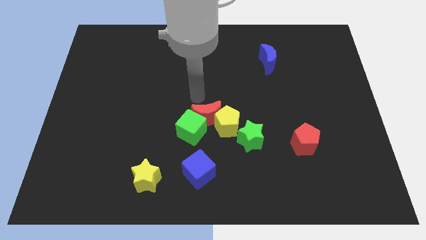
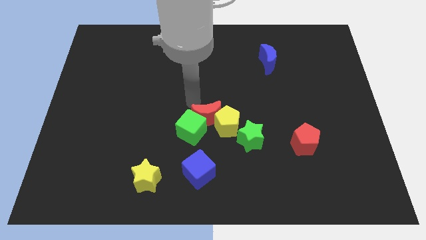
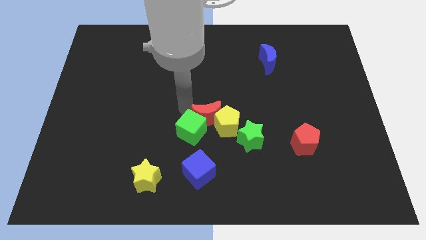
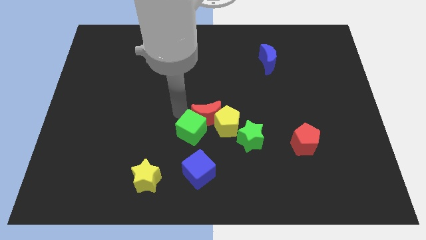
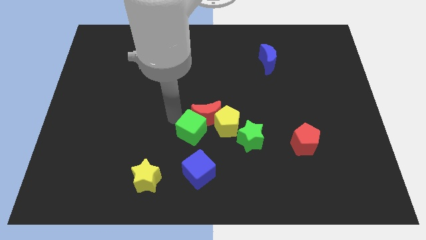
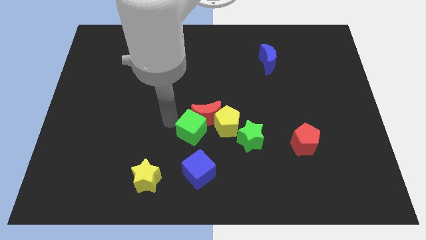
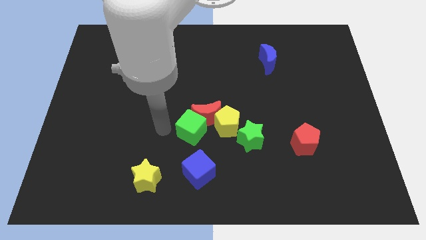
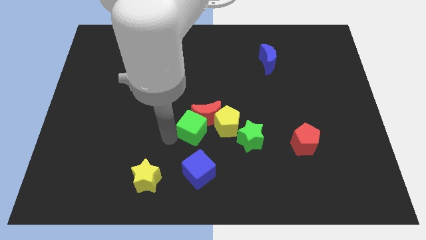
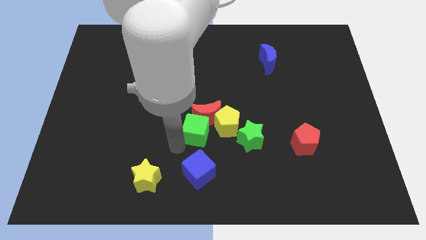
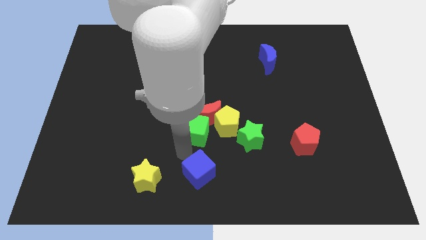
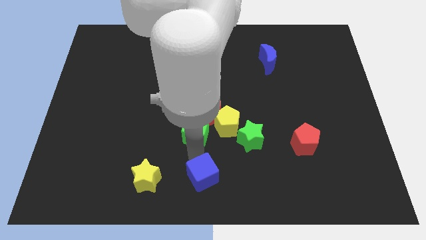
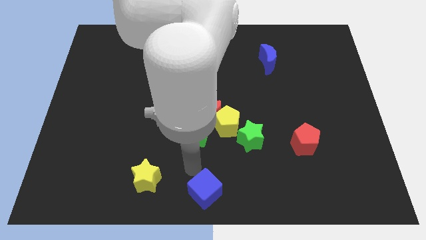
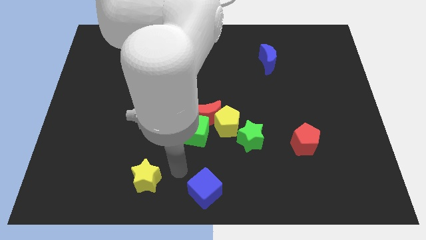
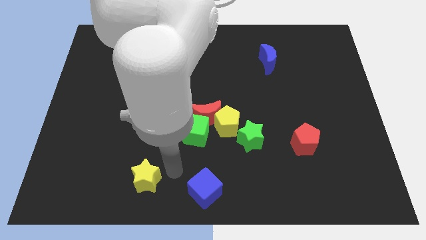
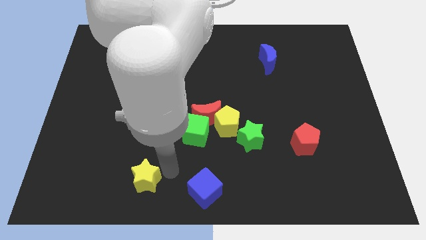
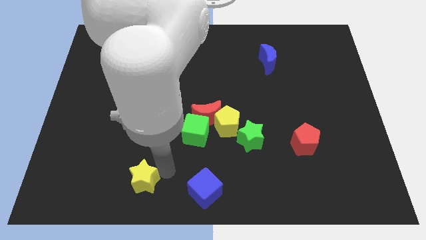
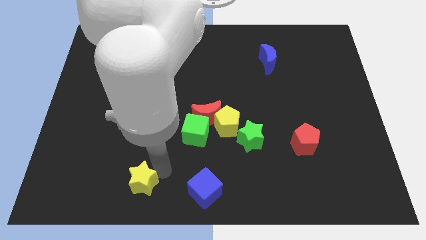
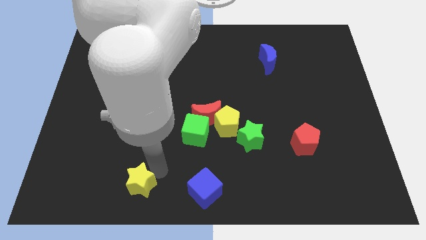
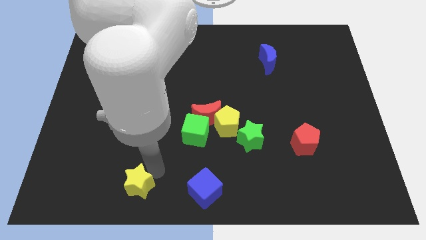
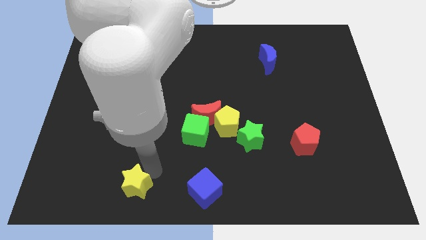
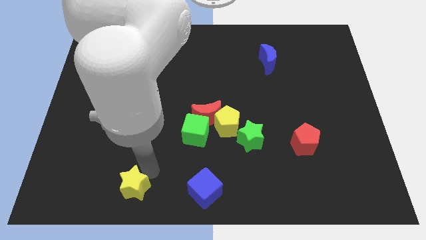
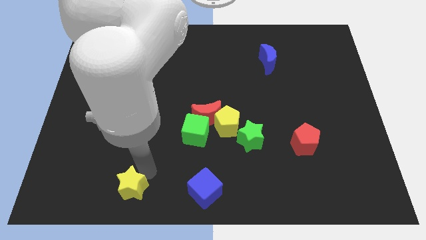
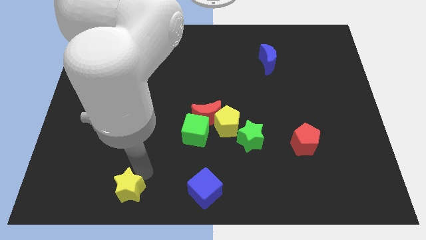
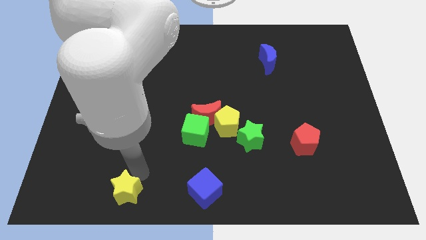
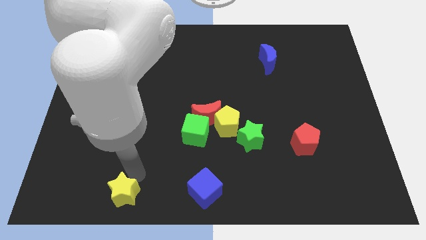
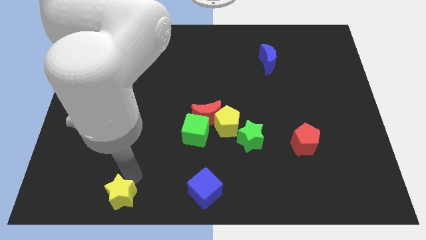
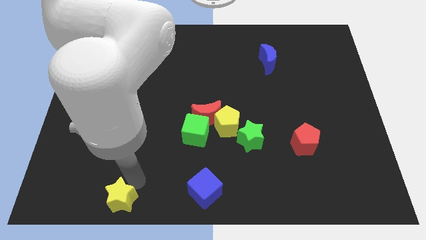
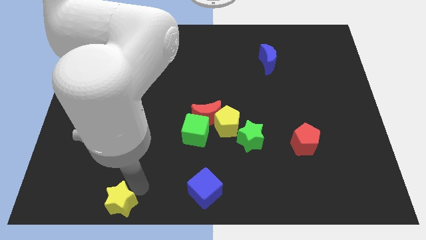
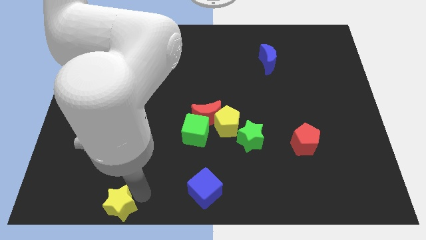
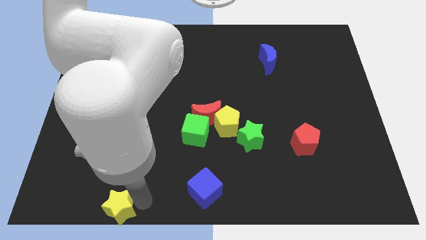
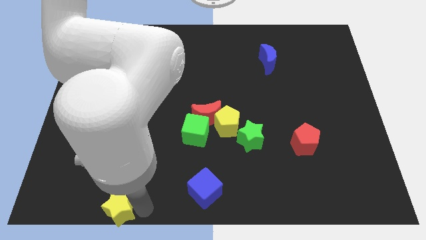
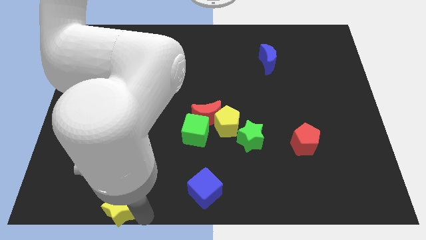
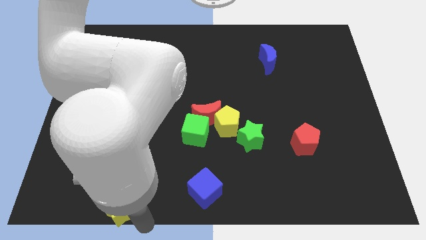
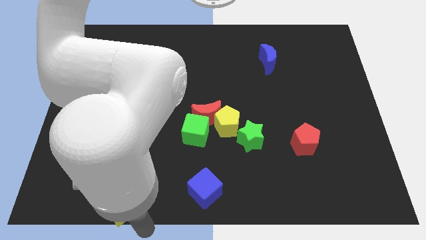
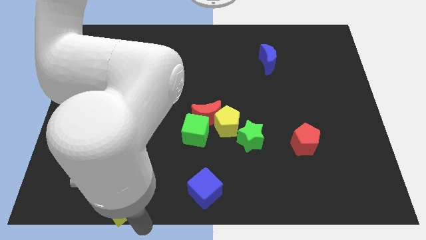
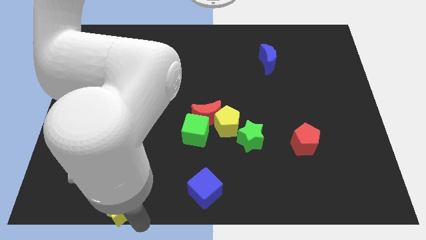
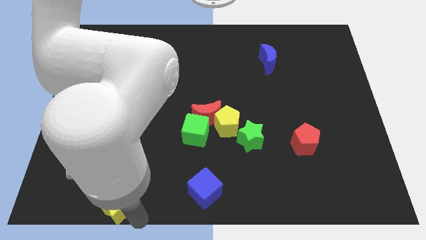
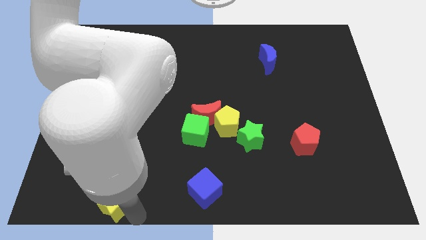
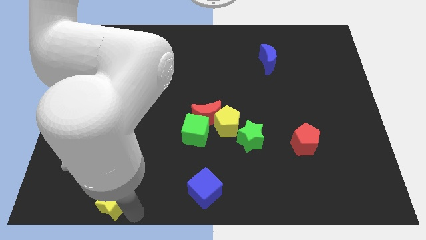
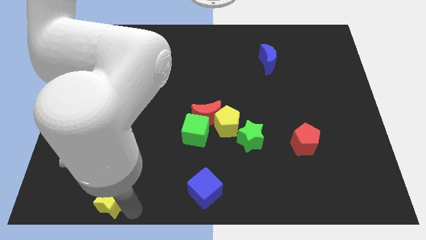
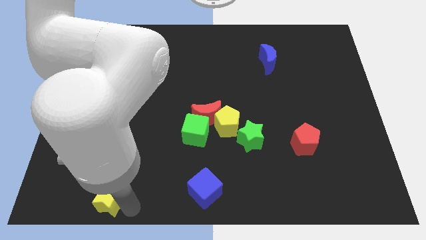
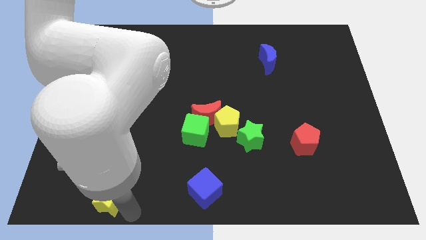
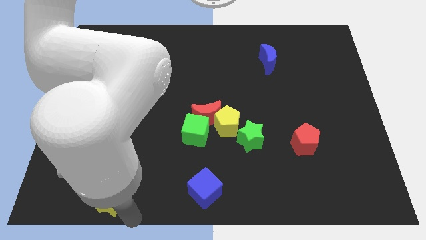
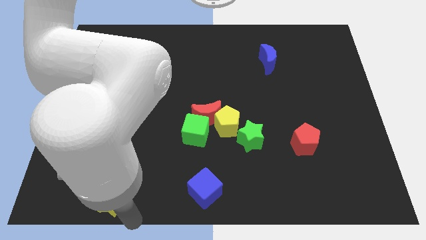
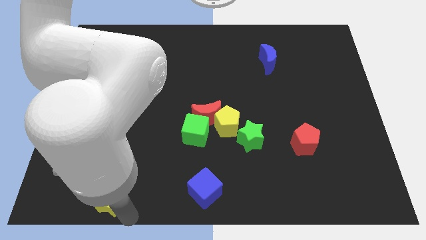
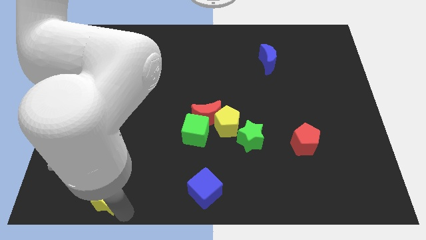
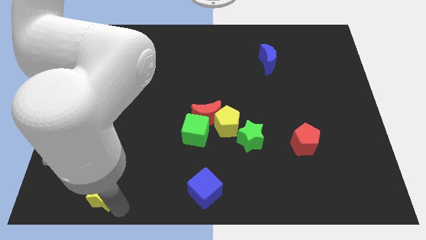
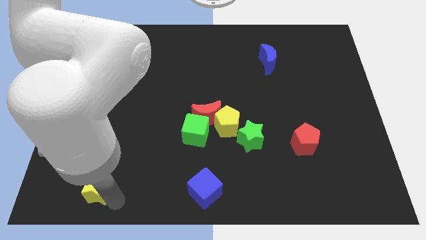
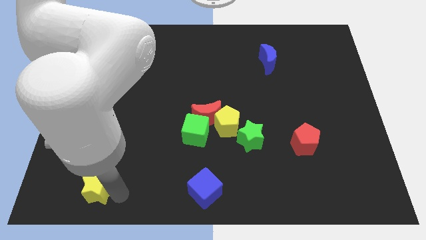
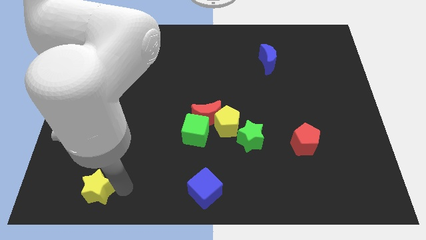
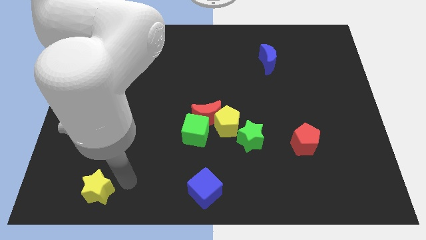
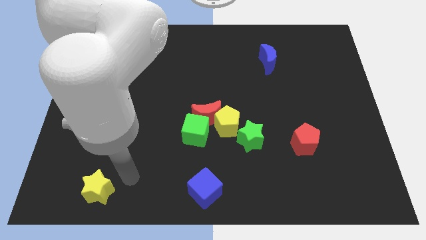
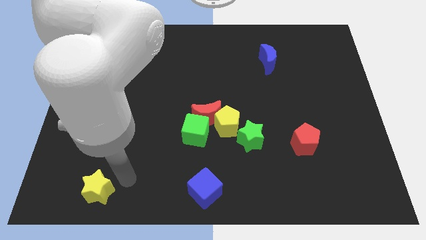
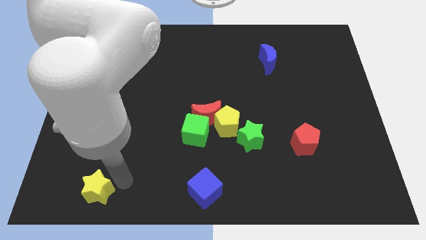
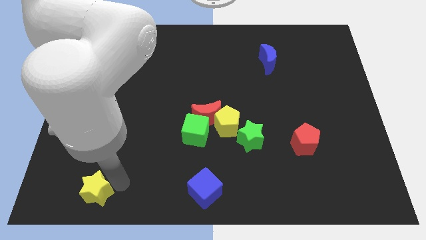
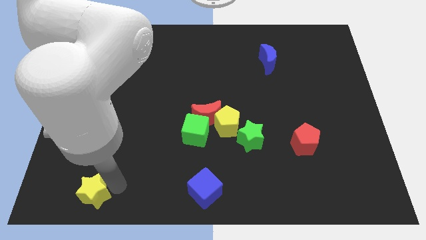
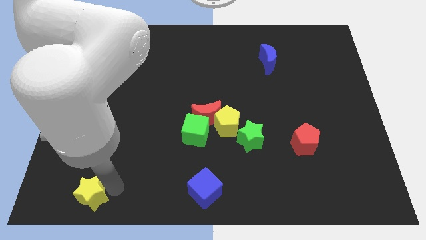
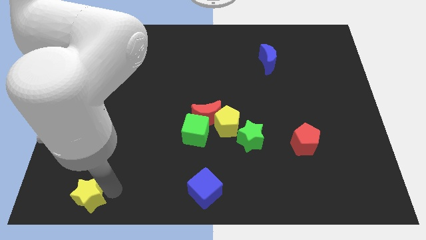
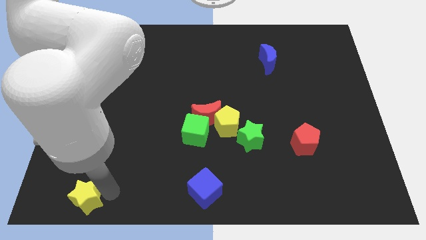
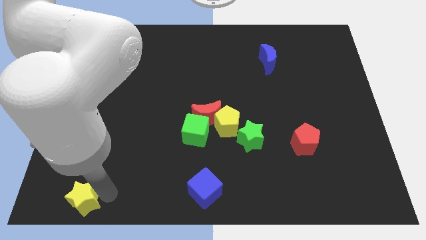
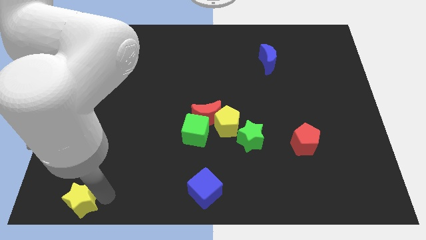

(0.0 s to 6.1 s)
move the yellow star to the bottom left corner
